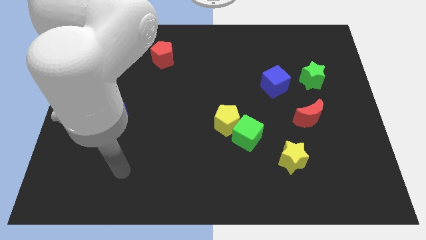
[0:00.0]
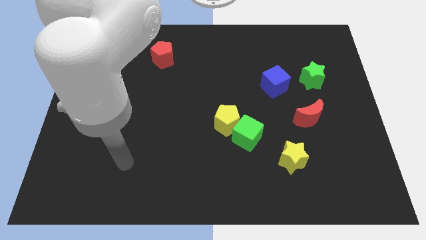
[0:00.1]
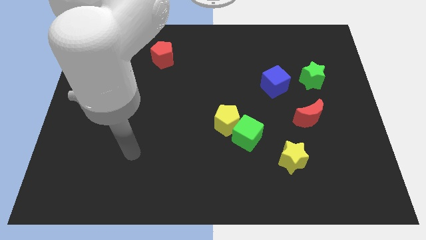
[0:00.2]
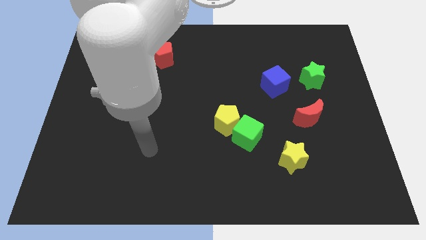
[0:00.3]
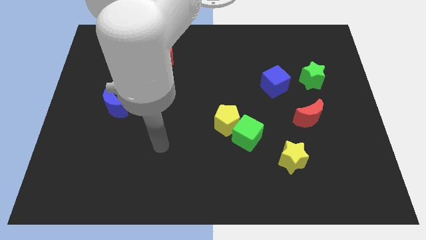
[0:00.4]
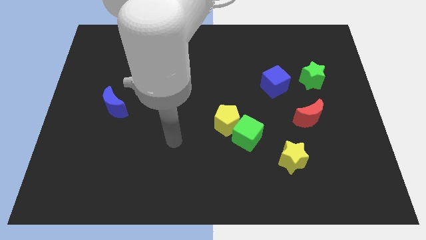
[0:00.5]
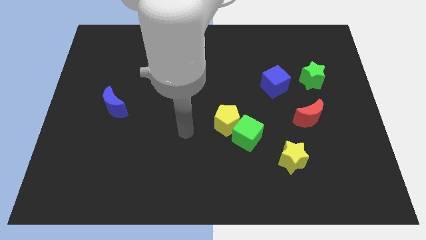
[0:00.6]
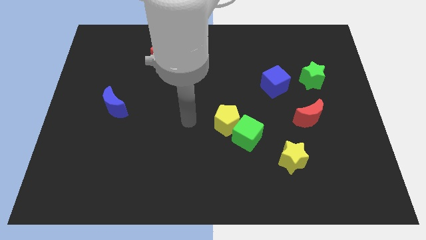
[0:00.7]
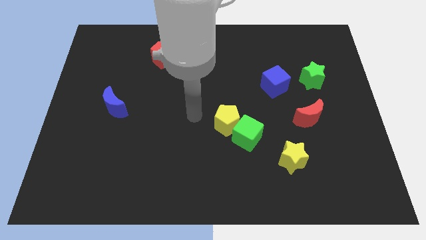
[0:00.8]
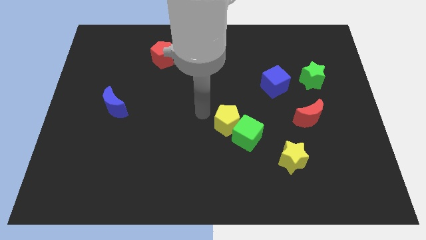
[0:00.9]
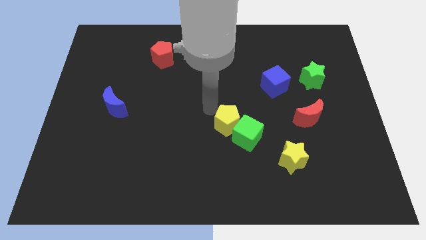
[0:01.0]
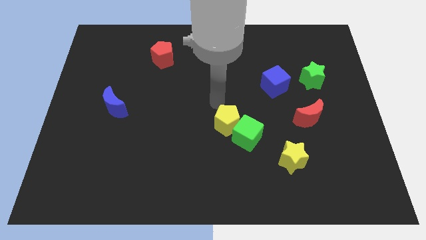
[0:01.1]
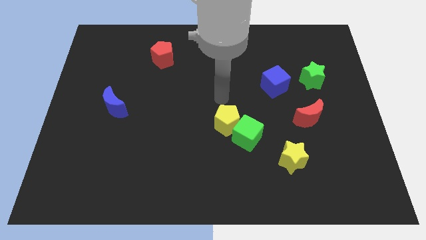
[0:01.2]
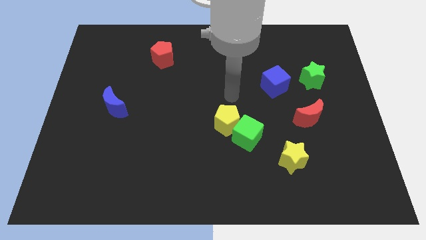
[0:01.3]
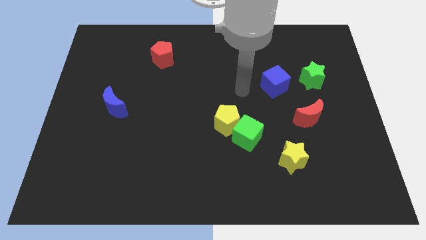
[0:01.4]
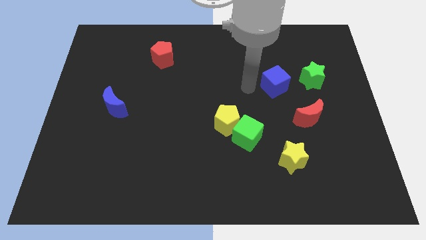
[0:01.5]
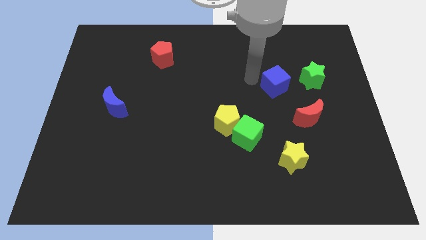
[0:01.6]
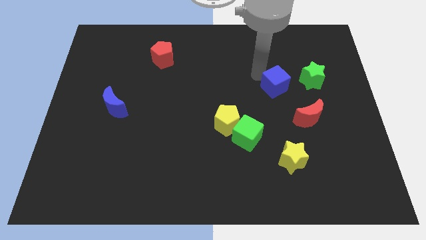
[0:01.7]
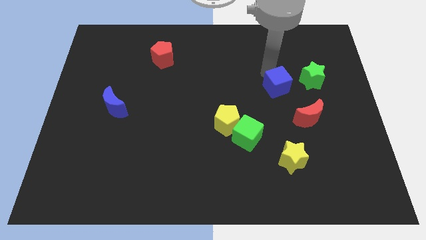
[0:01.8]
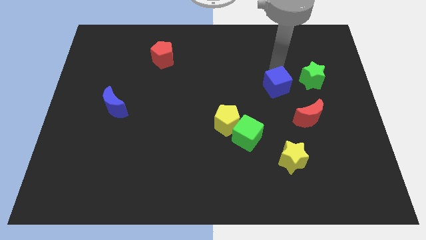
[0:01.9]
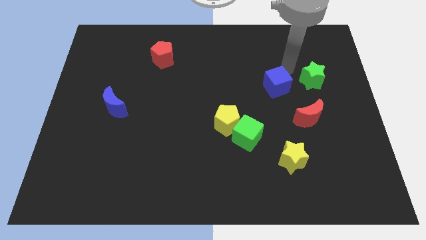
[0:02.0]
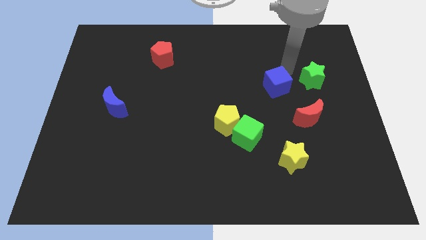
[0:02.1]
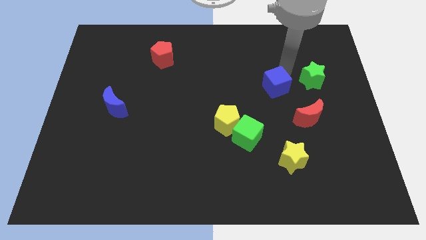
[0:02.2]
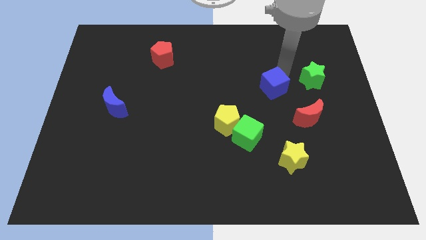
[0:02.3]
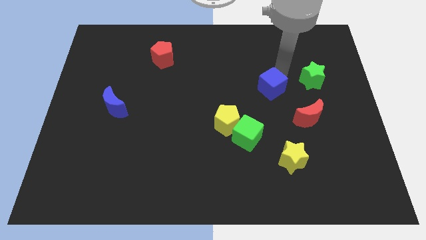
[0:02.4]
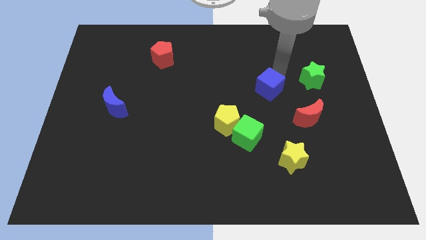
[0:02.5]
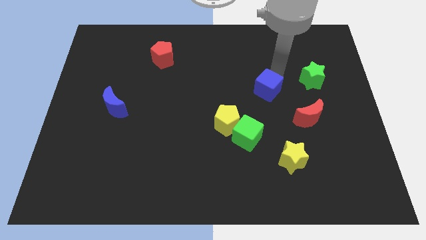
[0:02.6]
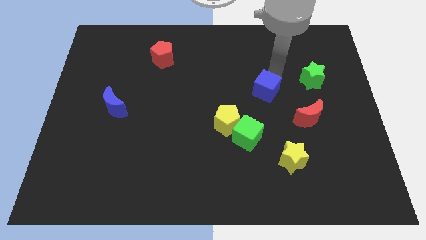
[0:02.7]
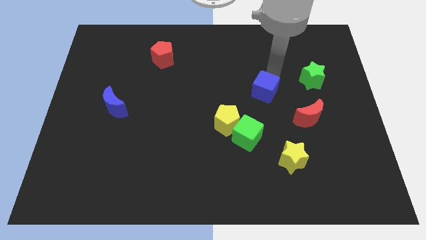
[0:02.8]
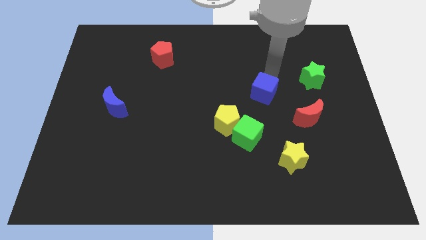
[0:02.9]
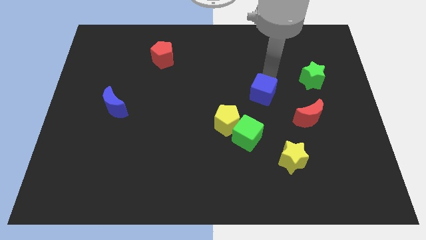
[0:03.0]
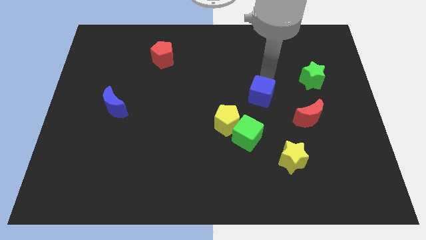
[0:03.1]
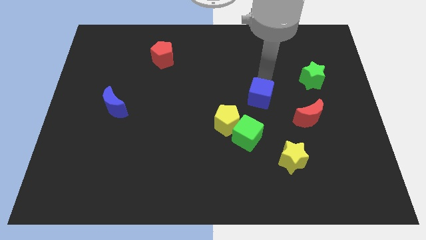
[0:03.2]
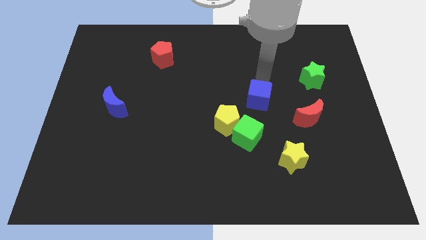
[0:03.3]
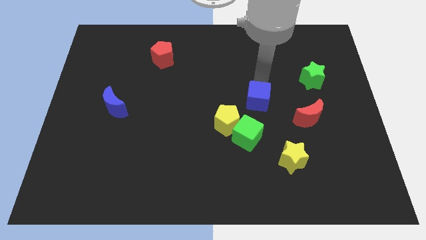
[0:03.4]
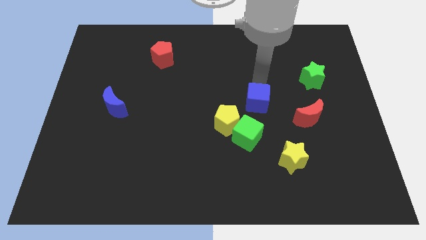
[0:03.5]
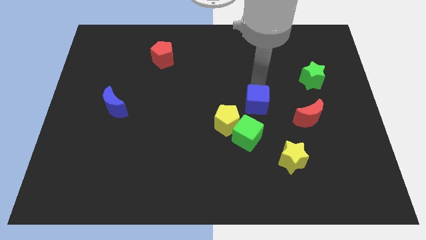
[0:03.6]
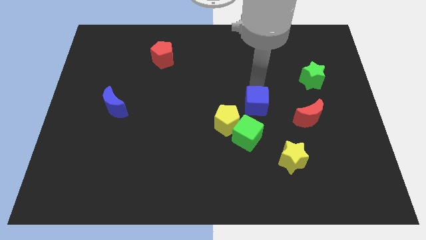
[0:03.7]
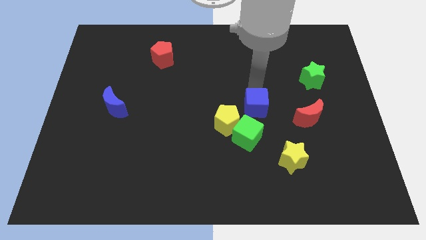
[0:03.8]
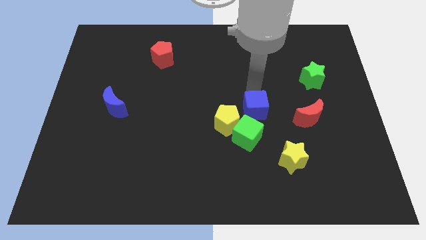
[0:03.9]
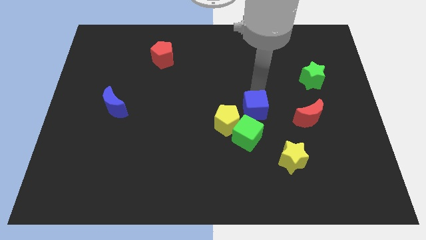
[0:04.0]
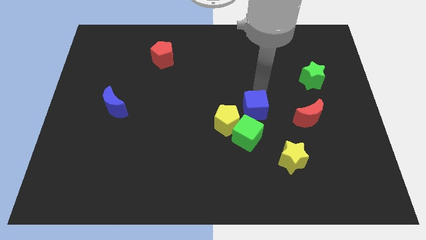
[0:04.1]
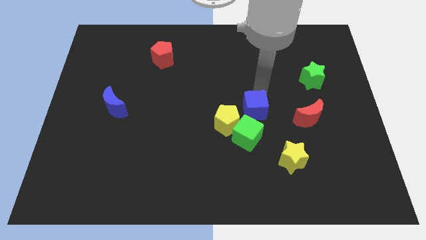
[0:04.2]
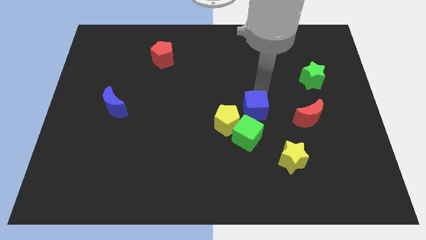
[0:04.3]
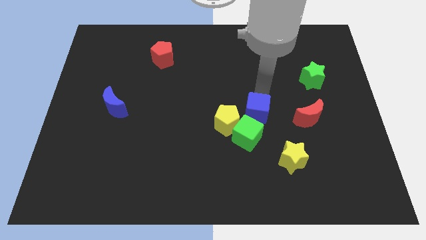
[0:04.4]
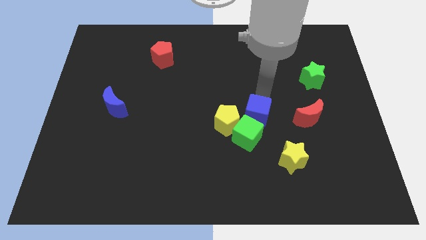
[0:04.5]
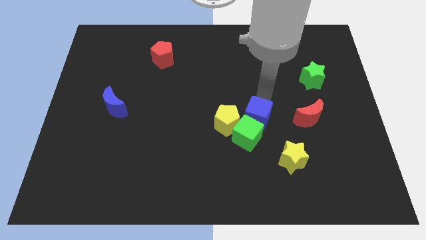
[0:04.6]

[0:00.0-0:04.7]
move the blue cube next to the green cube

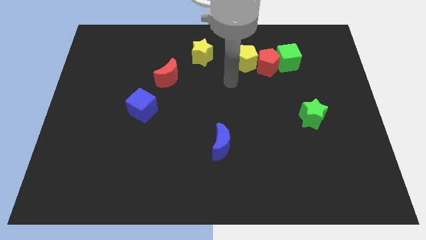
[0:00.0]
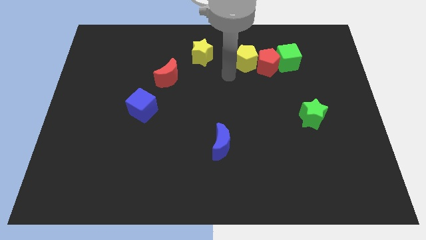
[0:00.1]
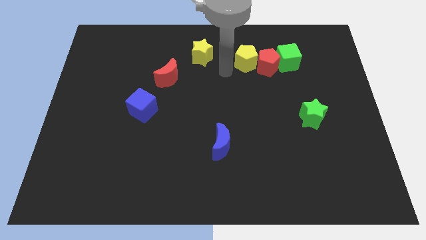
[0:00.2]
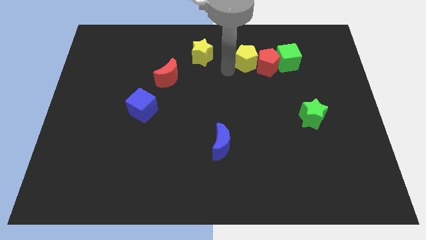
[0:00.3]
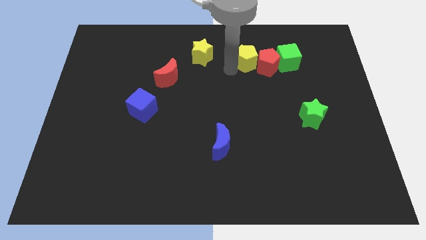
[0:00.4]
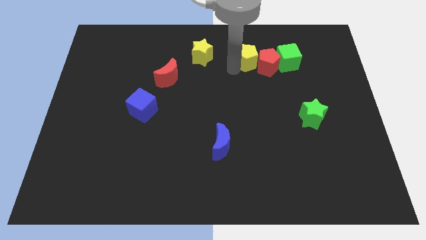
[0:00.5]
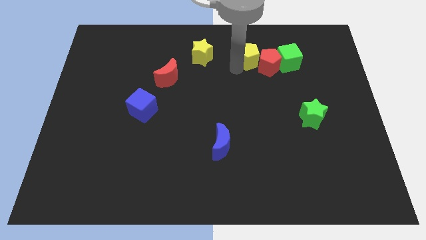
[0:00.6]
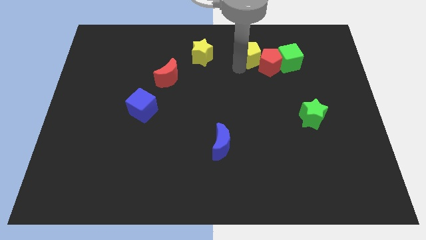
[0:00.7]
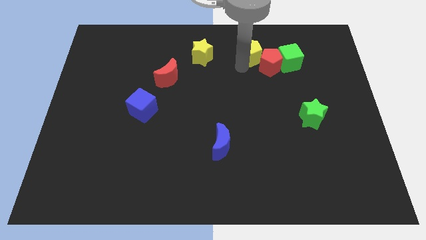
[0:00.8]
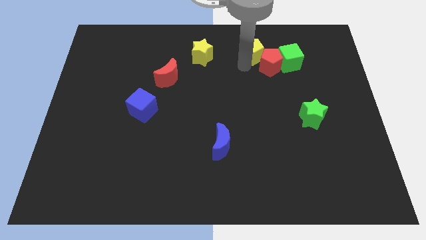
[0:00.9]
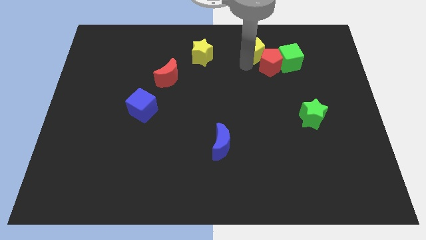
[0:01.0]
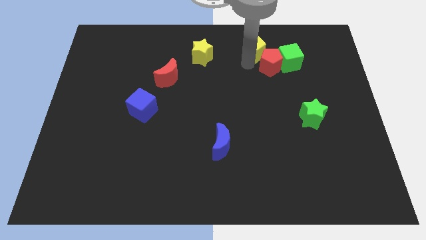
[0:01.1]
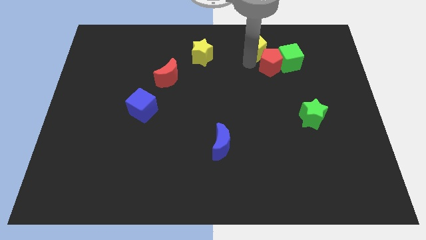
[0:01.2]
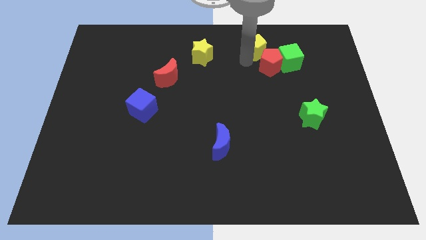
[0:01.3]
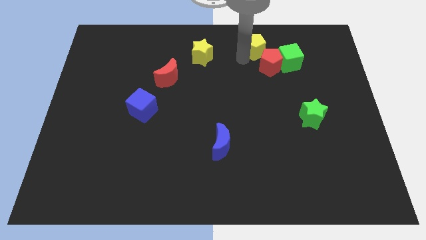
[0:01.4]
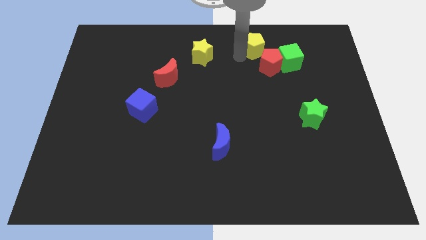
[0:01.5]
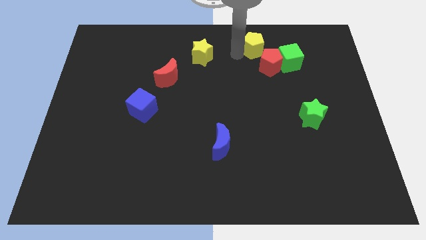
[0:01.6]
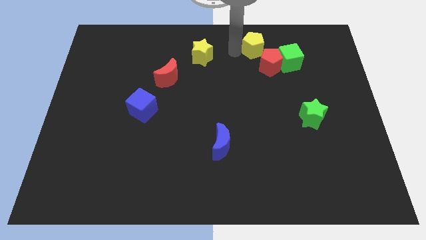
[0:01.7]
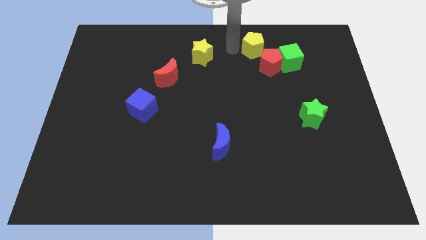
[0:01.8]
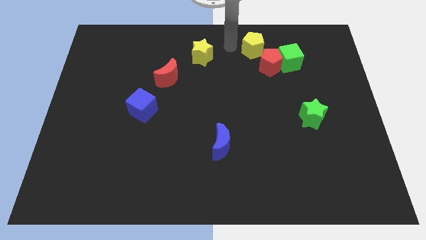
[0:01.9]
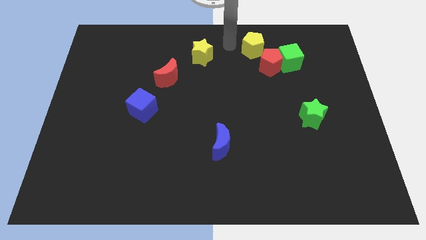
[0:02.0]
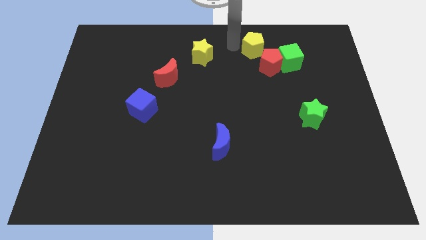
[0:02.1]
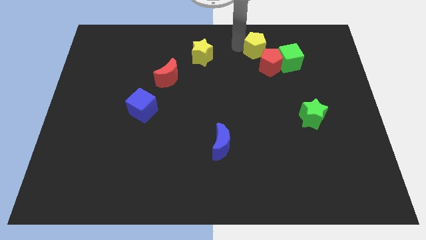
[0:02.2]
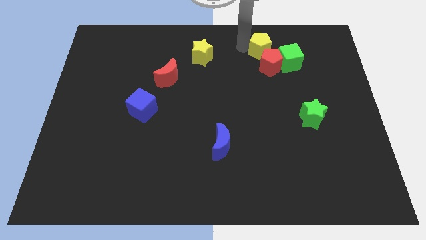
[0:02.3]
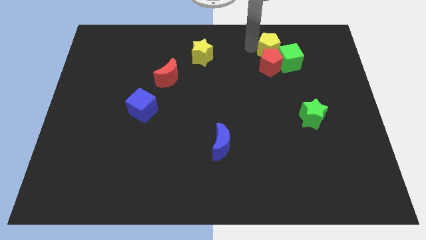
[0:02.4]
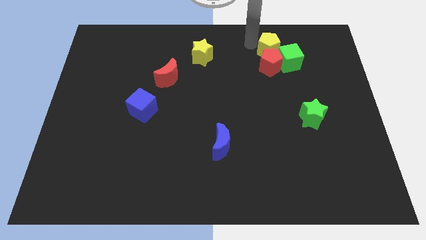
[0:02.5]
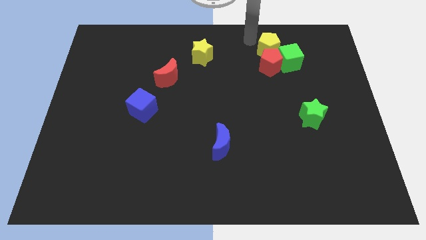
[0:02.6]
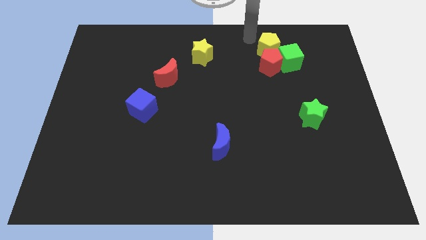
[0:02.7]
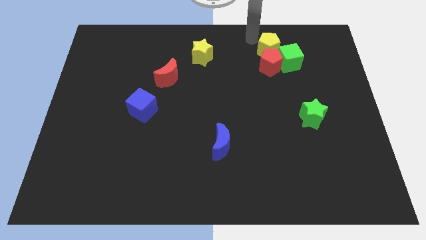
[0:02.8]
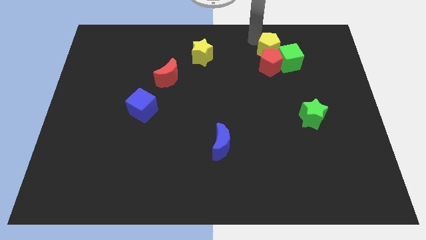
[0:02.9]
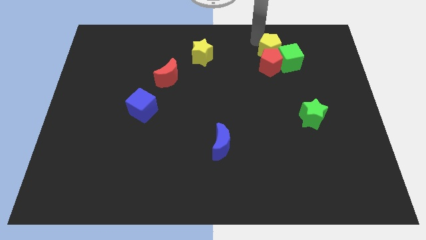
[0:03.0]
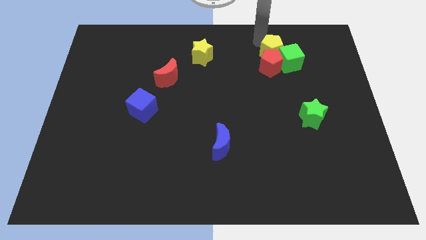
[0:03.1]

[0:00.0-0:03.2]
push the yellow pentagon to the green cube
